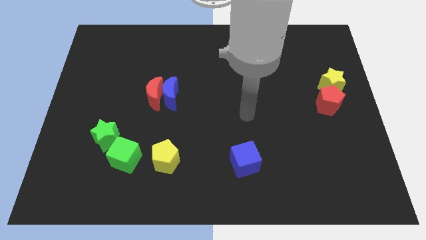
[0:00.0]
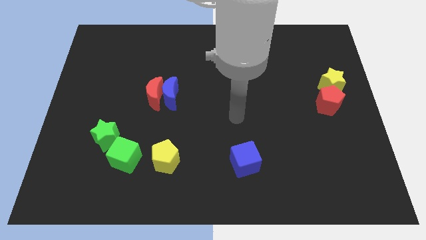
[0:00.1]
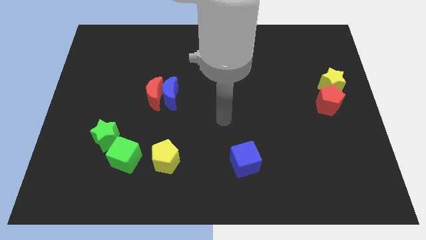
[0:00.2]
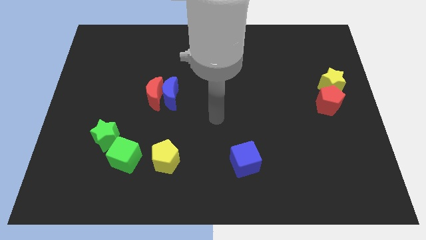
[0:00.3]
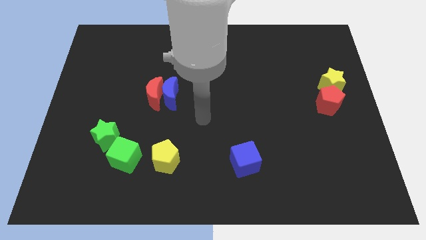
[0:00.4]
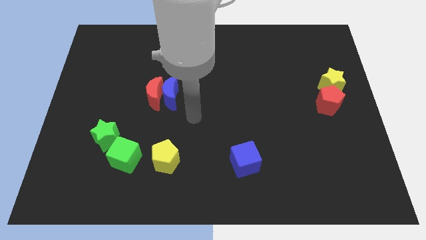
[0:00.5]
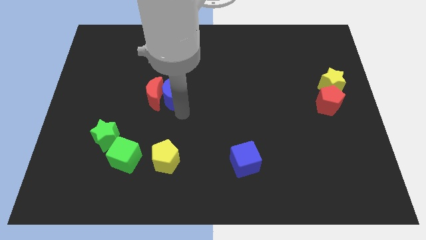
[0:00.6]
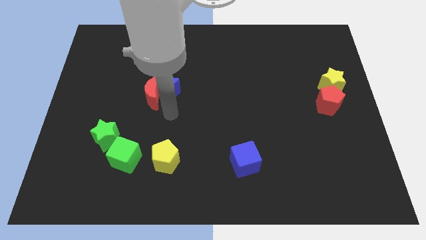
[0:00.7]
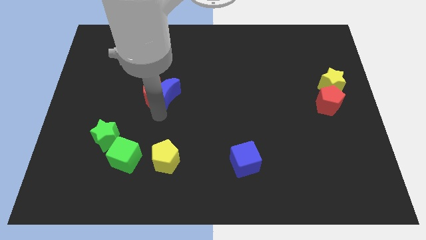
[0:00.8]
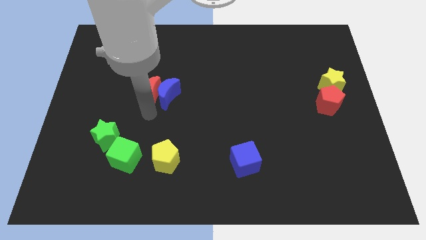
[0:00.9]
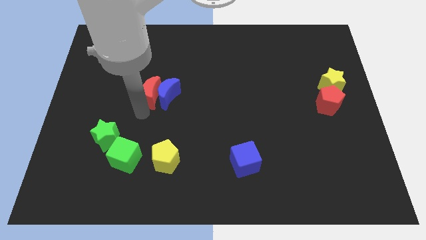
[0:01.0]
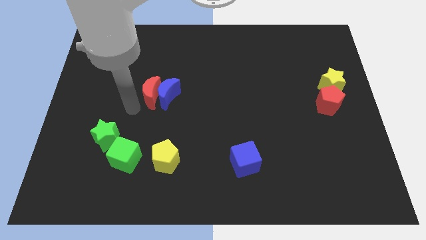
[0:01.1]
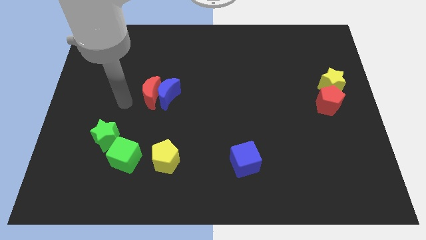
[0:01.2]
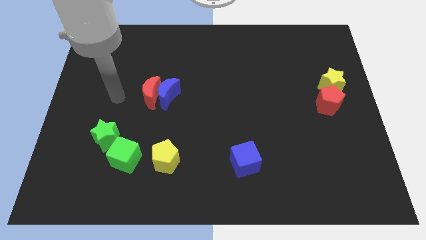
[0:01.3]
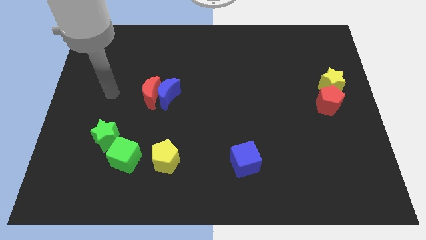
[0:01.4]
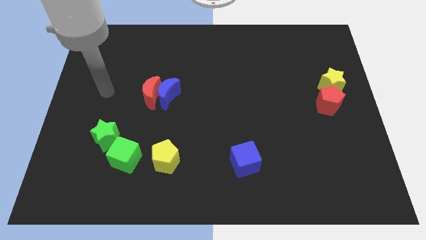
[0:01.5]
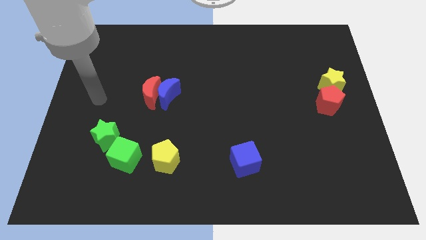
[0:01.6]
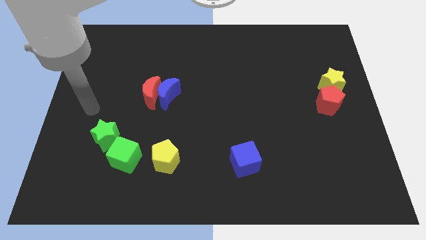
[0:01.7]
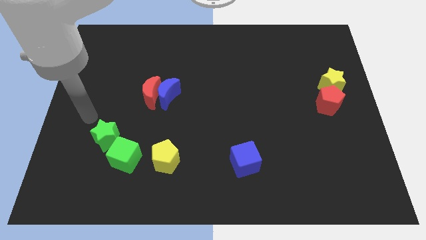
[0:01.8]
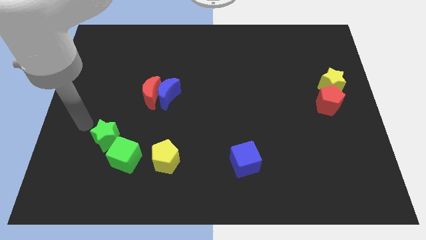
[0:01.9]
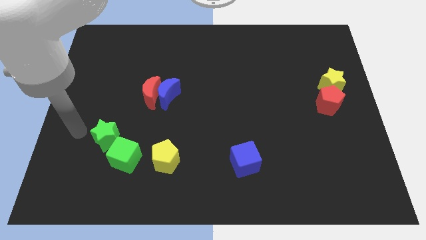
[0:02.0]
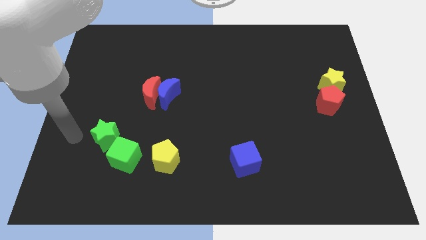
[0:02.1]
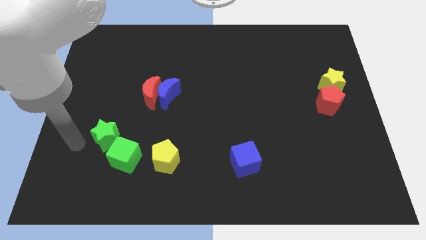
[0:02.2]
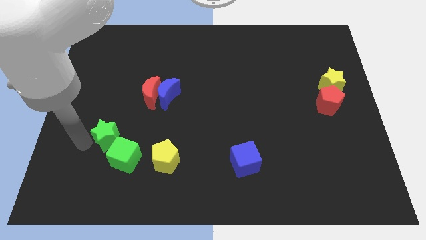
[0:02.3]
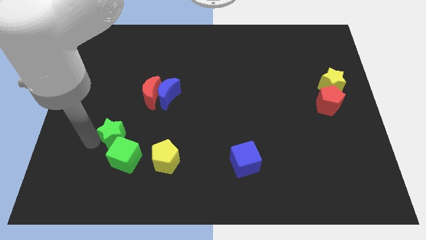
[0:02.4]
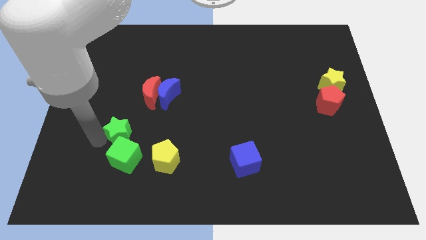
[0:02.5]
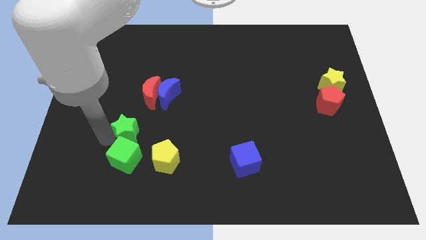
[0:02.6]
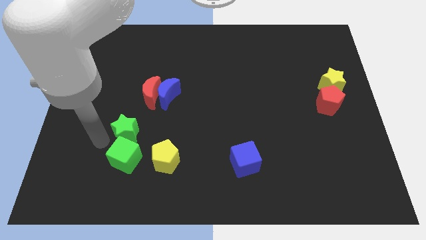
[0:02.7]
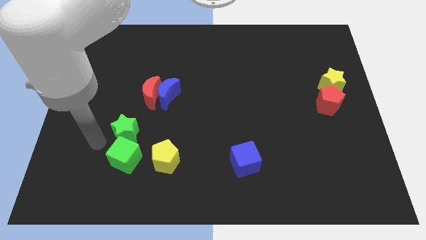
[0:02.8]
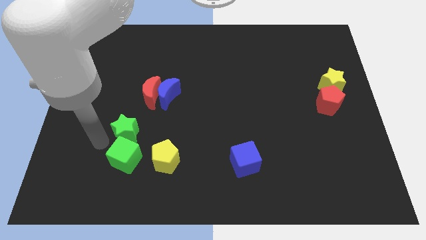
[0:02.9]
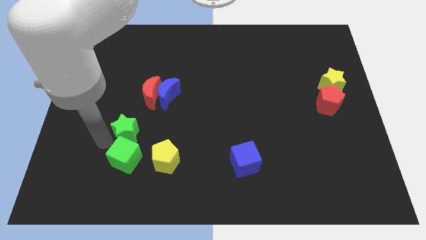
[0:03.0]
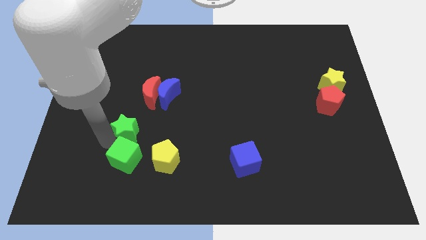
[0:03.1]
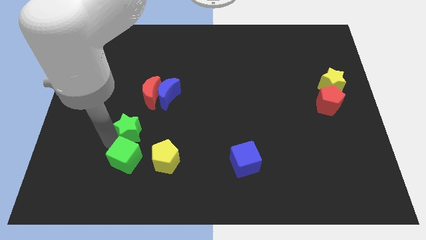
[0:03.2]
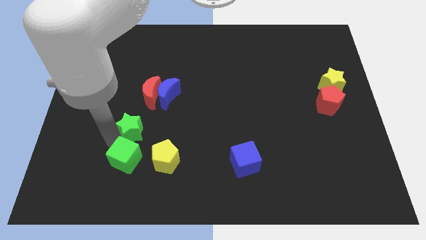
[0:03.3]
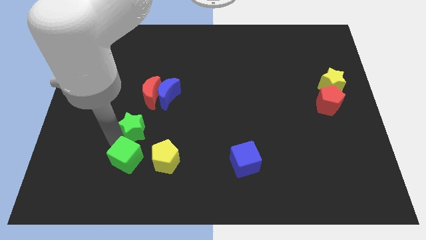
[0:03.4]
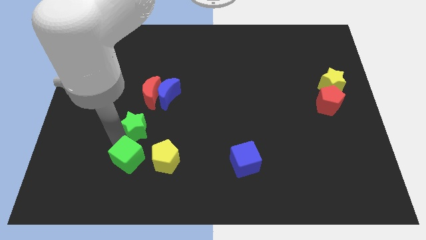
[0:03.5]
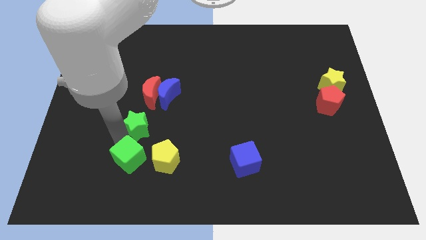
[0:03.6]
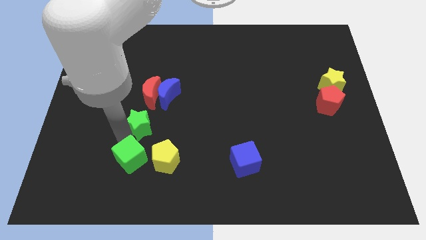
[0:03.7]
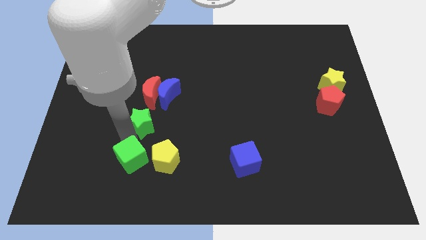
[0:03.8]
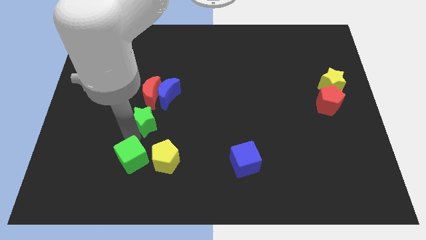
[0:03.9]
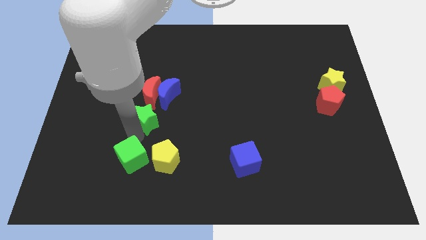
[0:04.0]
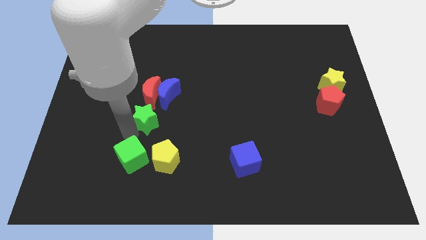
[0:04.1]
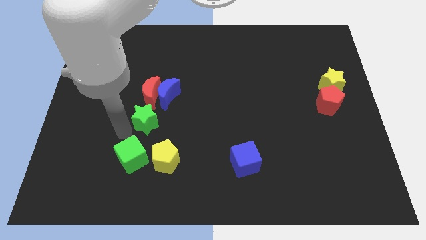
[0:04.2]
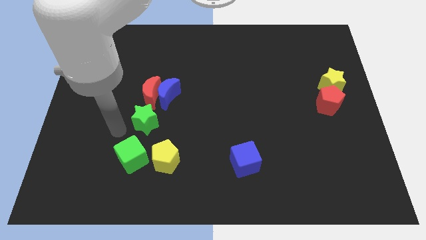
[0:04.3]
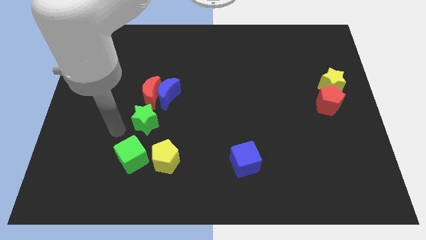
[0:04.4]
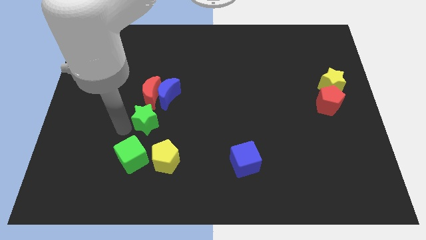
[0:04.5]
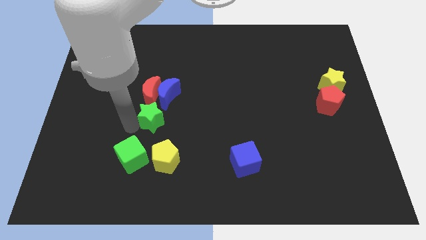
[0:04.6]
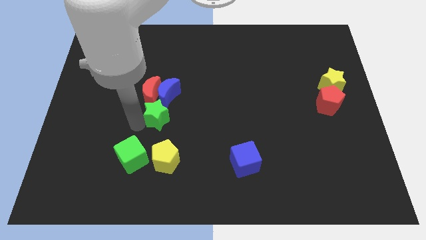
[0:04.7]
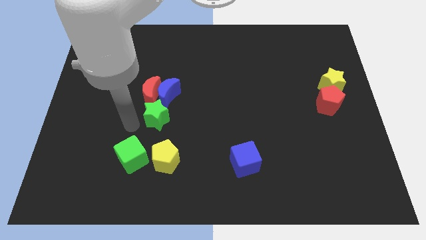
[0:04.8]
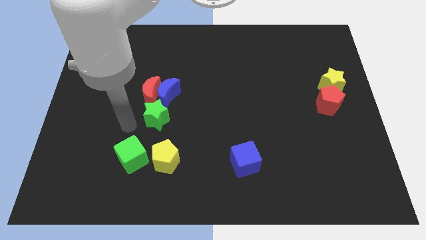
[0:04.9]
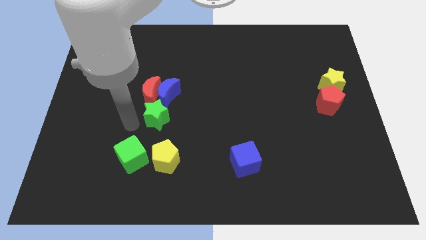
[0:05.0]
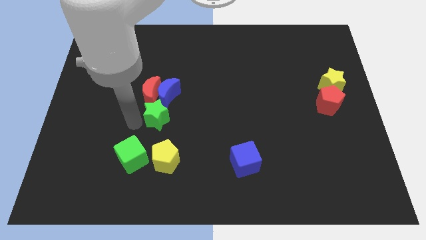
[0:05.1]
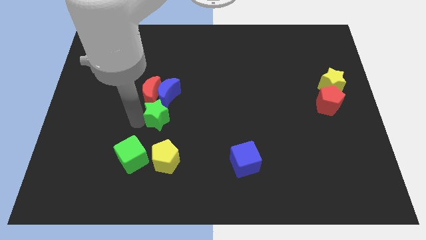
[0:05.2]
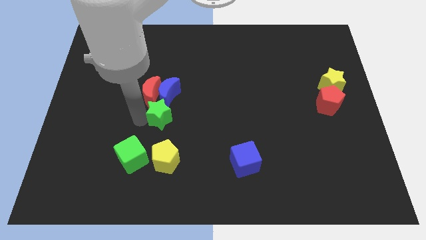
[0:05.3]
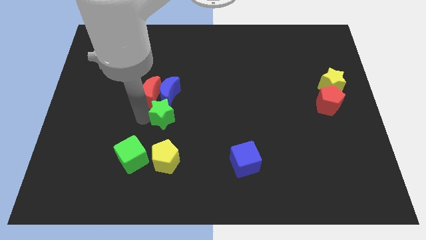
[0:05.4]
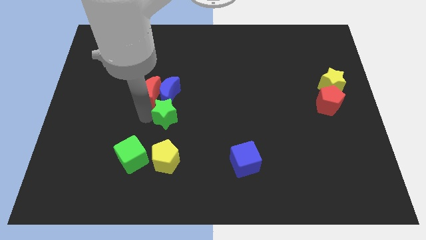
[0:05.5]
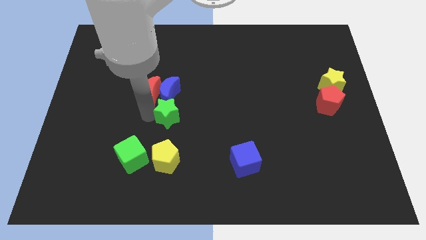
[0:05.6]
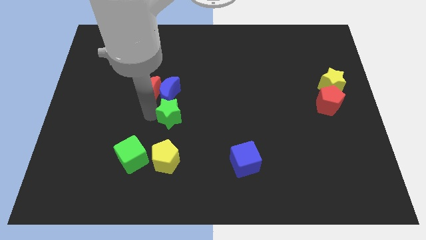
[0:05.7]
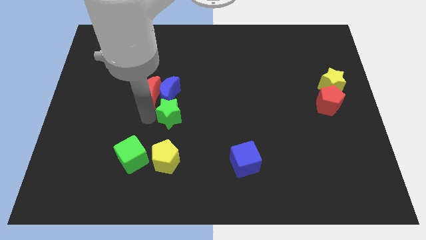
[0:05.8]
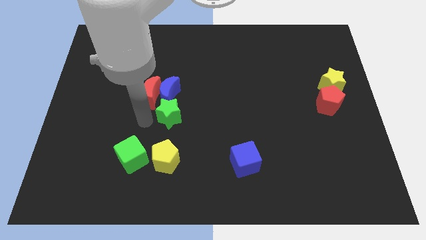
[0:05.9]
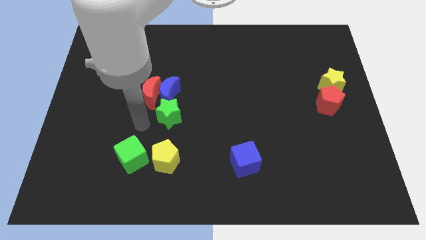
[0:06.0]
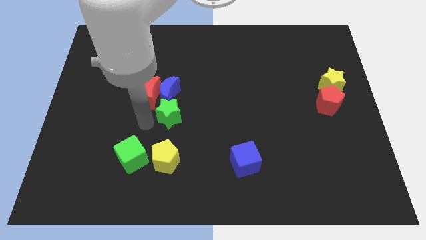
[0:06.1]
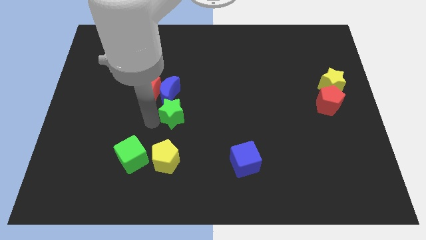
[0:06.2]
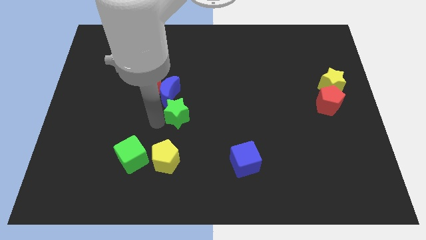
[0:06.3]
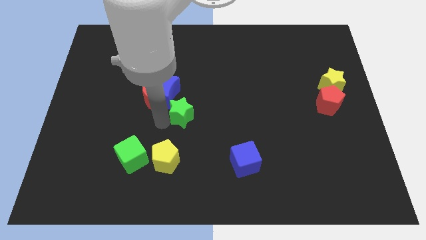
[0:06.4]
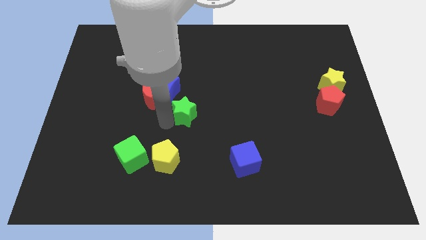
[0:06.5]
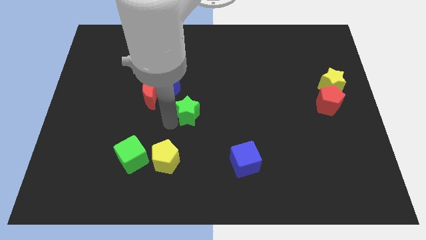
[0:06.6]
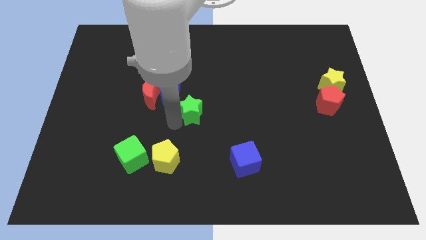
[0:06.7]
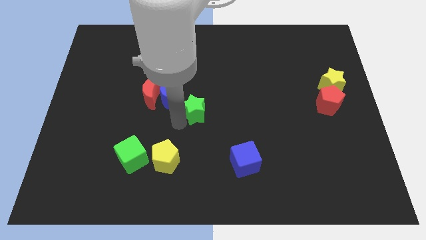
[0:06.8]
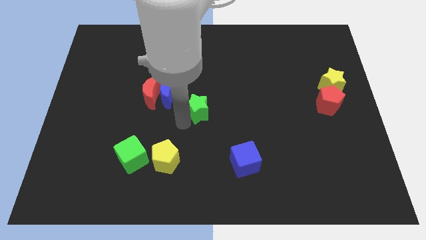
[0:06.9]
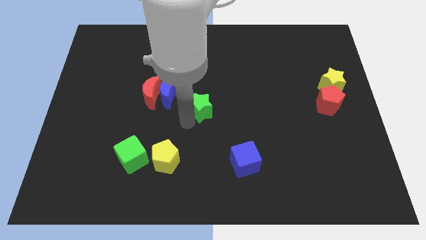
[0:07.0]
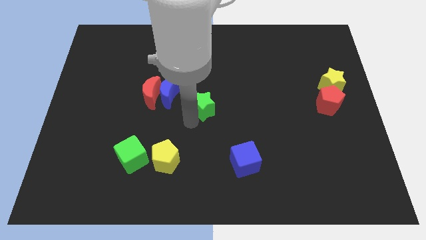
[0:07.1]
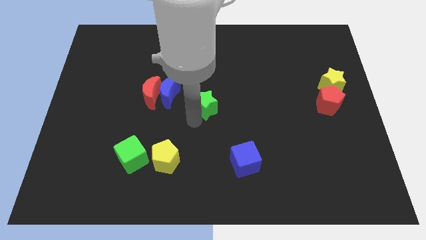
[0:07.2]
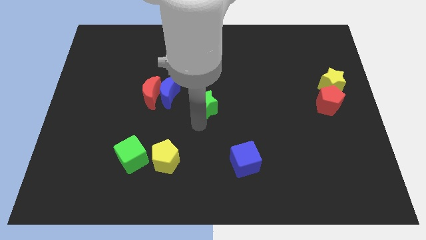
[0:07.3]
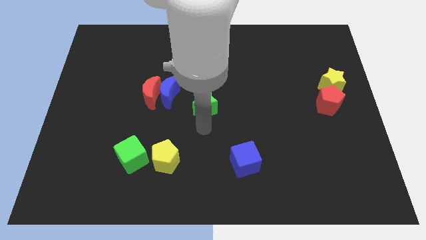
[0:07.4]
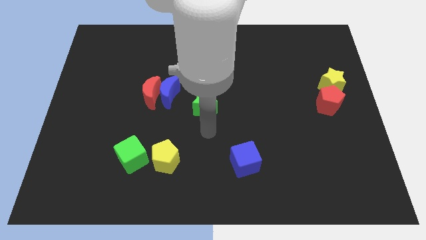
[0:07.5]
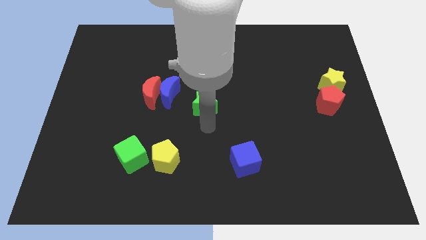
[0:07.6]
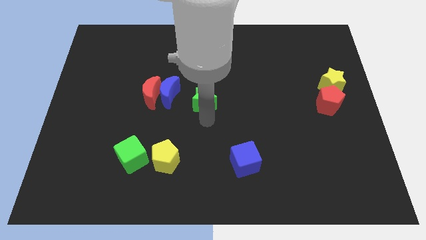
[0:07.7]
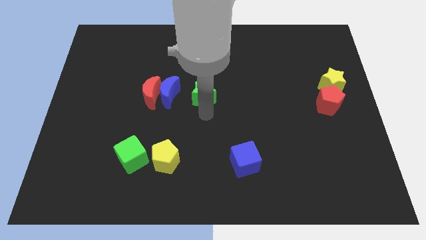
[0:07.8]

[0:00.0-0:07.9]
move the green star up and to the right

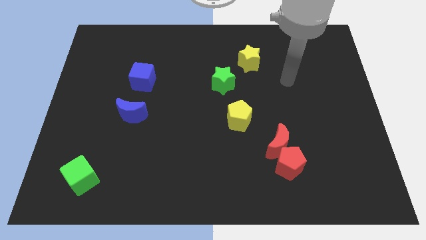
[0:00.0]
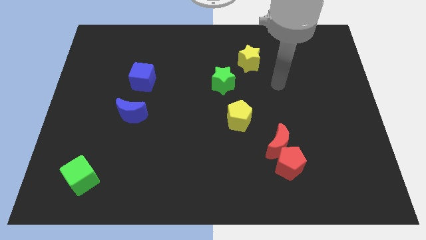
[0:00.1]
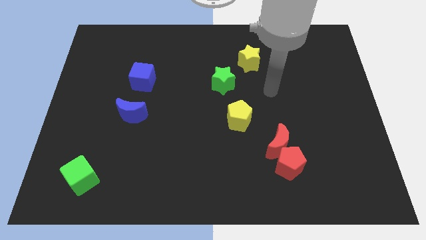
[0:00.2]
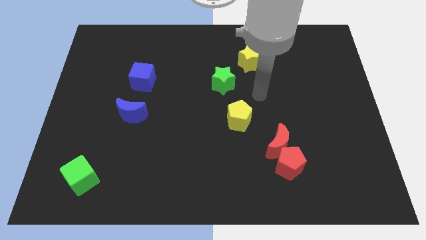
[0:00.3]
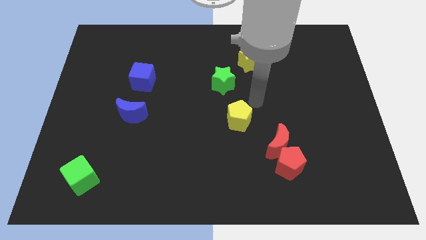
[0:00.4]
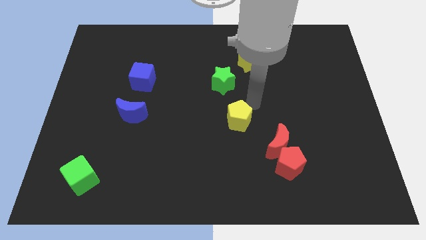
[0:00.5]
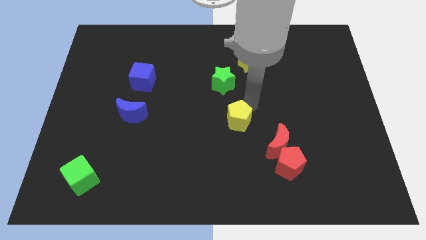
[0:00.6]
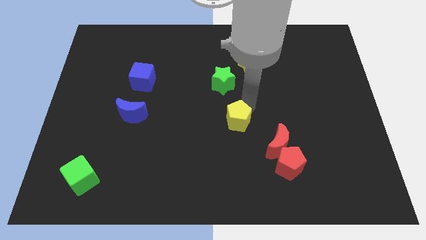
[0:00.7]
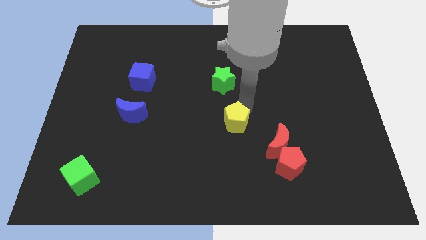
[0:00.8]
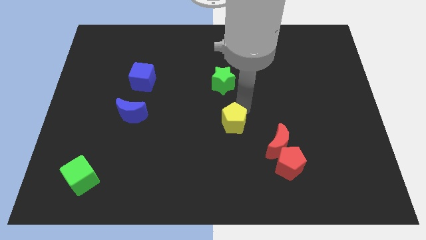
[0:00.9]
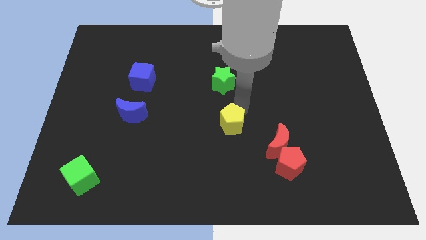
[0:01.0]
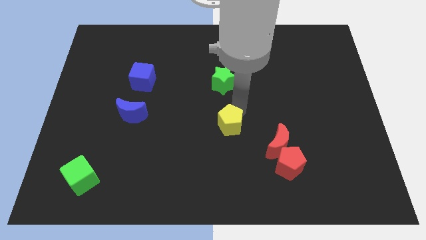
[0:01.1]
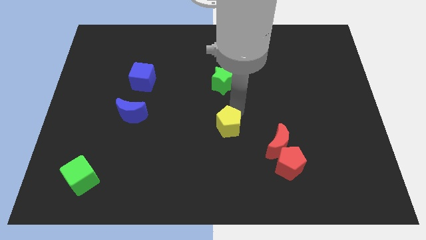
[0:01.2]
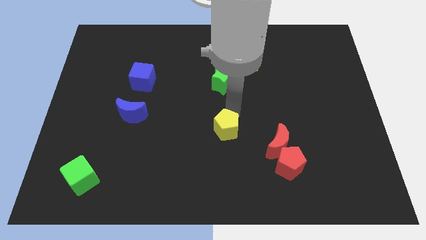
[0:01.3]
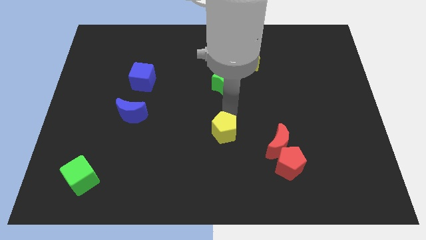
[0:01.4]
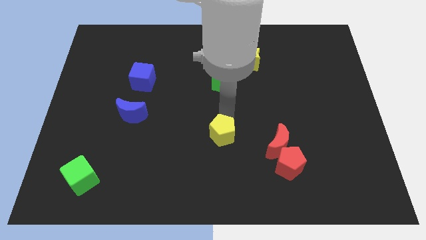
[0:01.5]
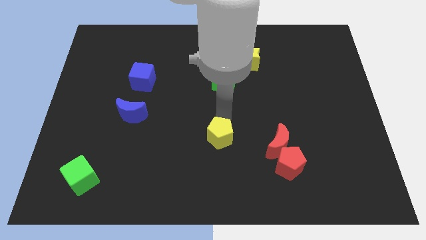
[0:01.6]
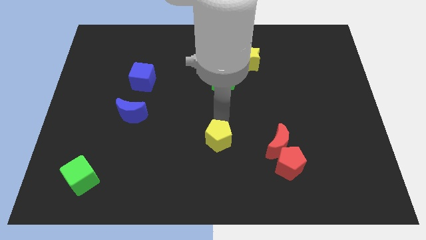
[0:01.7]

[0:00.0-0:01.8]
move the yellow pentagon down and left diagonally a little
